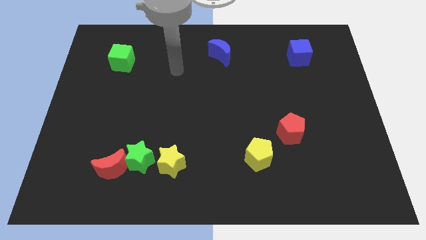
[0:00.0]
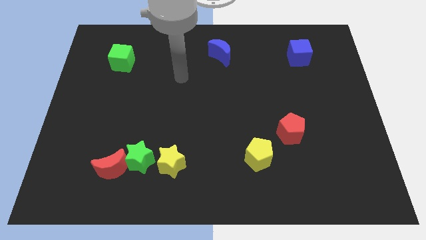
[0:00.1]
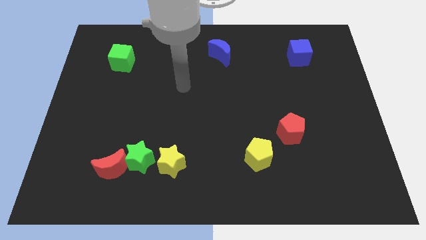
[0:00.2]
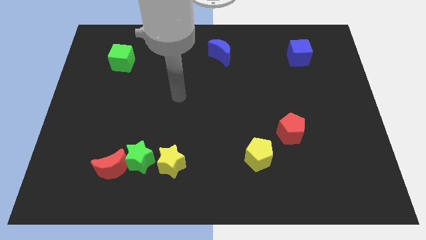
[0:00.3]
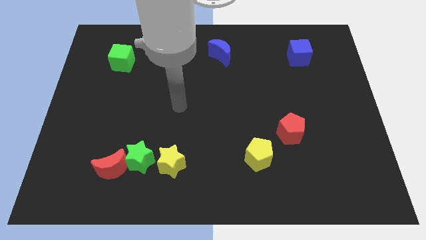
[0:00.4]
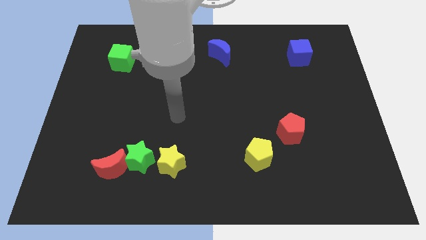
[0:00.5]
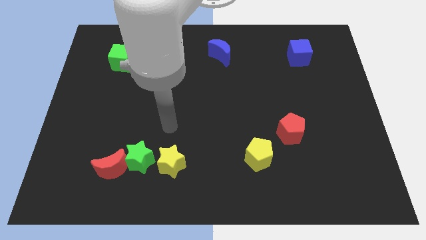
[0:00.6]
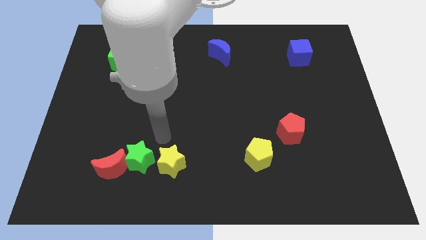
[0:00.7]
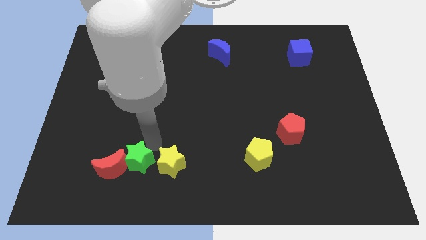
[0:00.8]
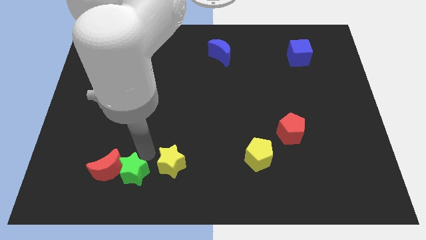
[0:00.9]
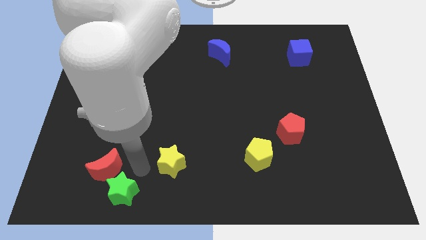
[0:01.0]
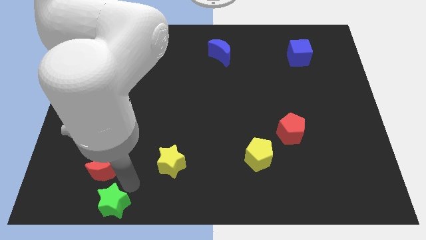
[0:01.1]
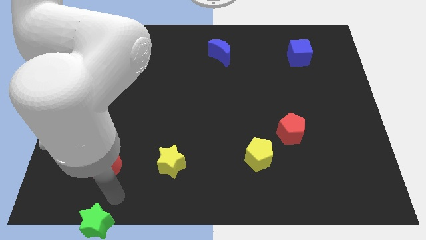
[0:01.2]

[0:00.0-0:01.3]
pull the red moon apart from the green star

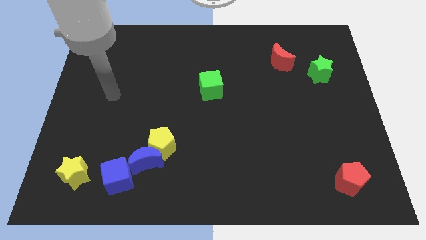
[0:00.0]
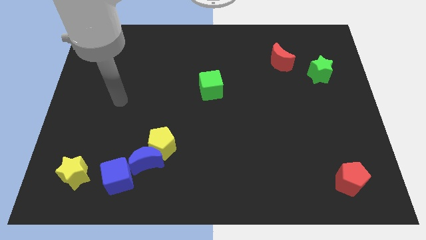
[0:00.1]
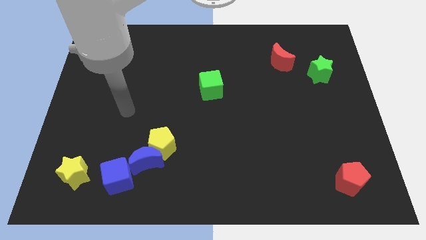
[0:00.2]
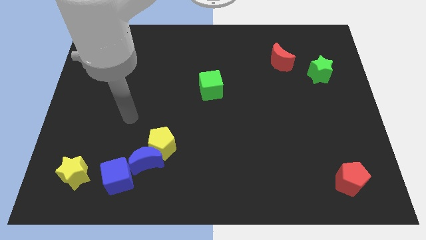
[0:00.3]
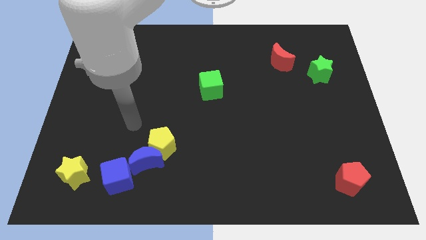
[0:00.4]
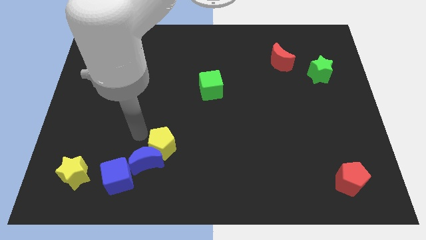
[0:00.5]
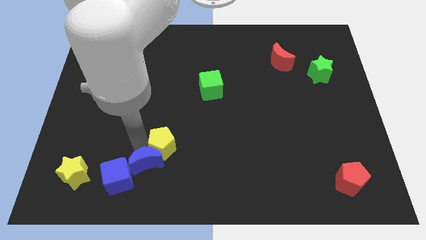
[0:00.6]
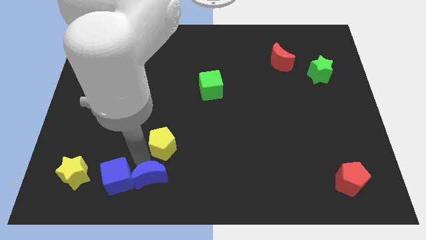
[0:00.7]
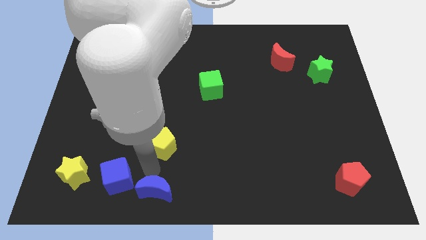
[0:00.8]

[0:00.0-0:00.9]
move the yellow pentagon away from the blue moon

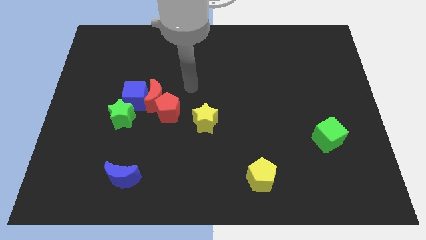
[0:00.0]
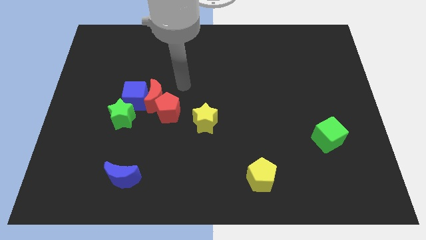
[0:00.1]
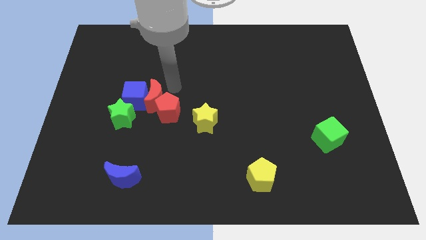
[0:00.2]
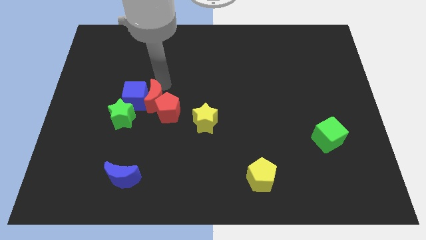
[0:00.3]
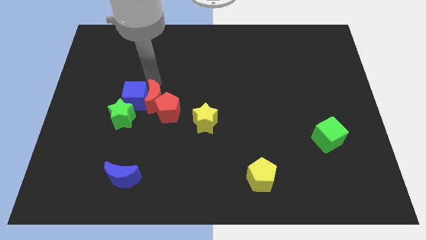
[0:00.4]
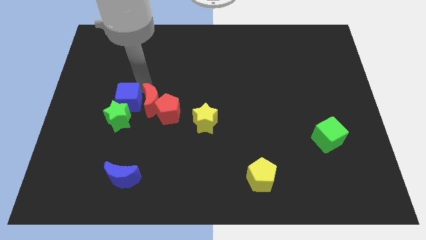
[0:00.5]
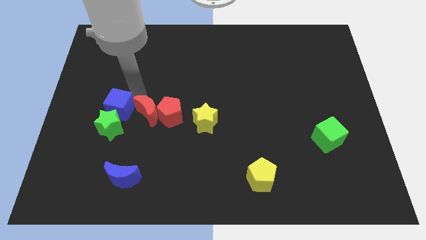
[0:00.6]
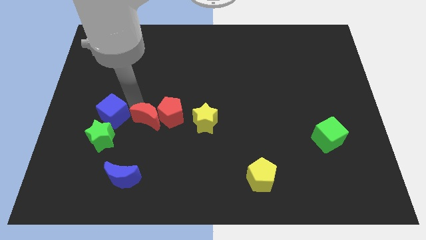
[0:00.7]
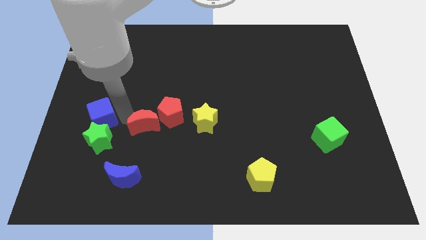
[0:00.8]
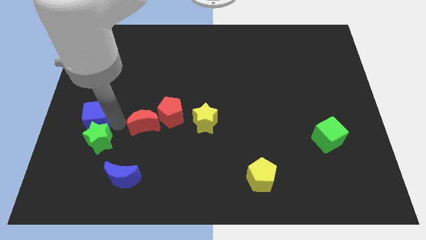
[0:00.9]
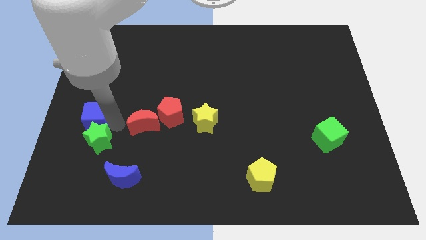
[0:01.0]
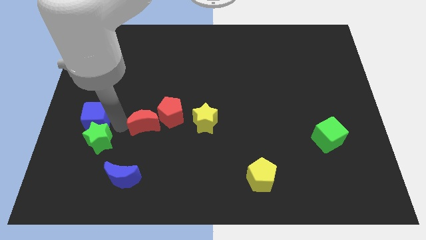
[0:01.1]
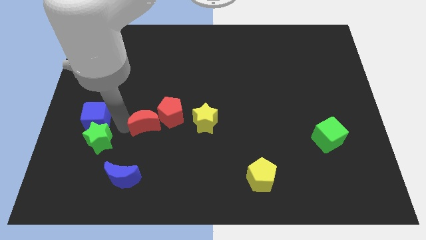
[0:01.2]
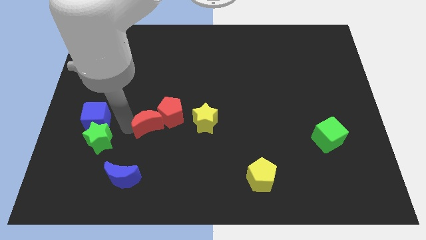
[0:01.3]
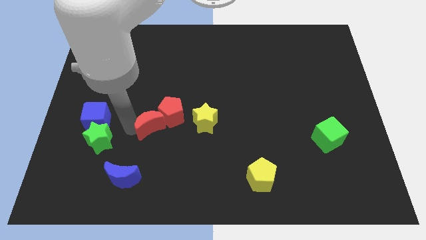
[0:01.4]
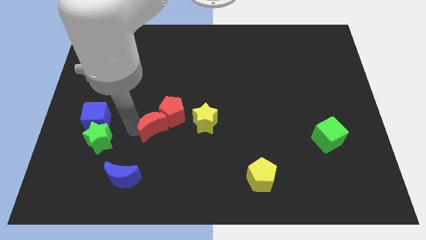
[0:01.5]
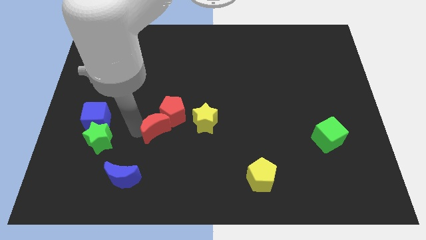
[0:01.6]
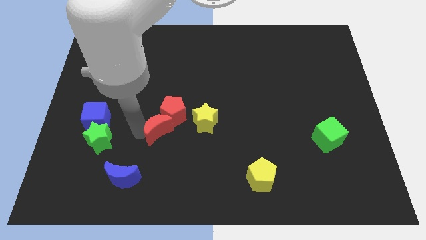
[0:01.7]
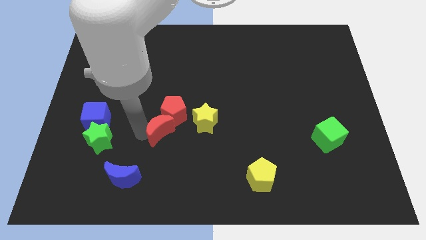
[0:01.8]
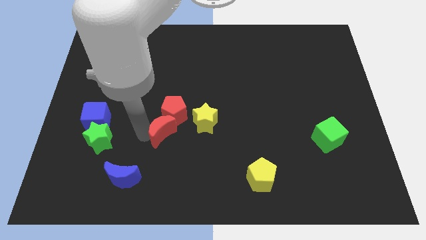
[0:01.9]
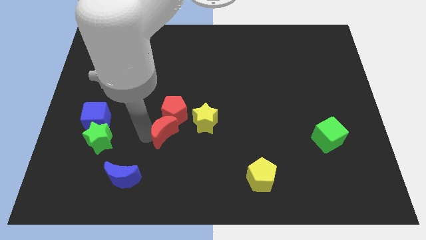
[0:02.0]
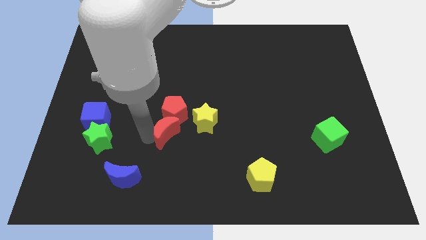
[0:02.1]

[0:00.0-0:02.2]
move the red moon away from the blue cube, red pentagon, and green star

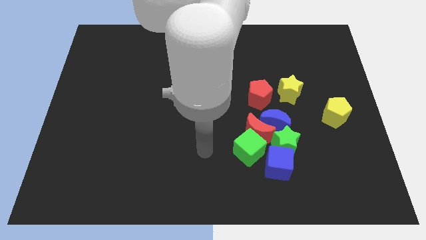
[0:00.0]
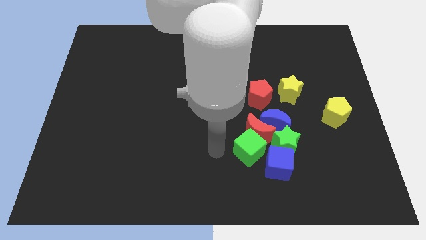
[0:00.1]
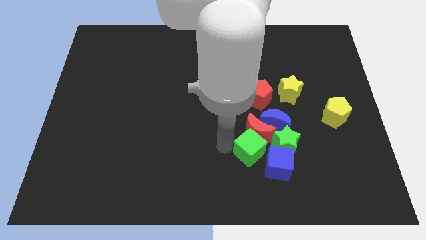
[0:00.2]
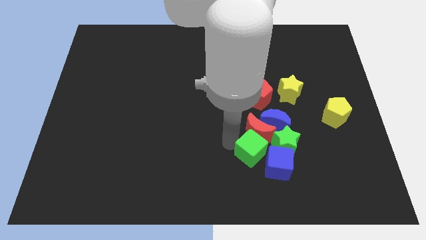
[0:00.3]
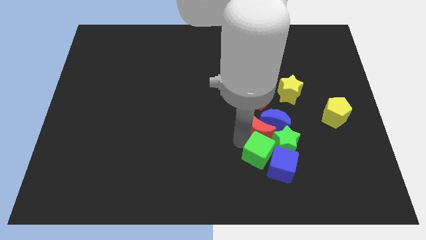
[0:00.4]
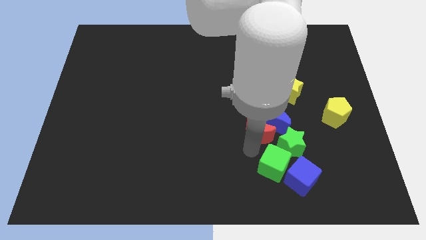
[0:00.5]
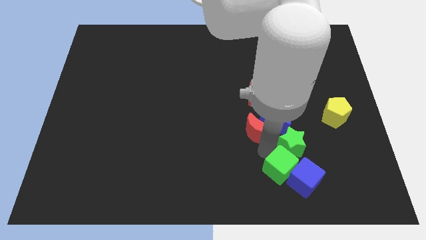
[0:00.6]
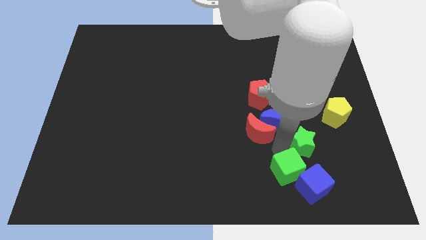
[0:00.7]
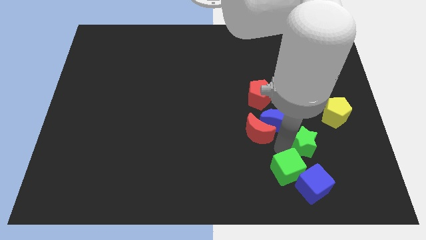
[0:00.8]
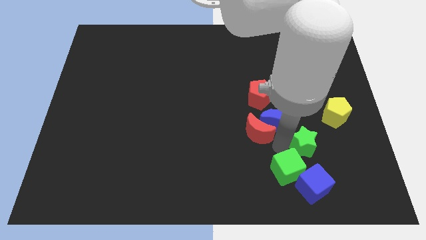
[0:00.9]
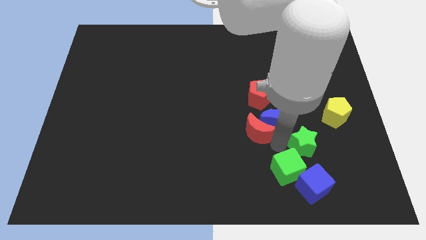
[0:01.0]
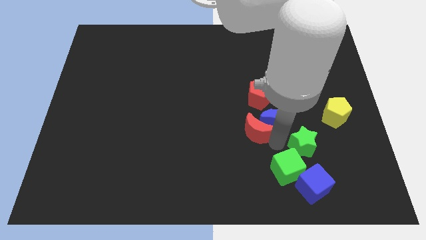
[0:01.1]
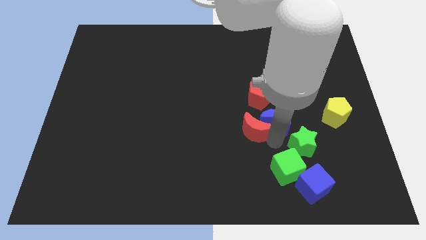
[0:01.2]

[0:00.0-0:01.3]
pull the red moon apart from the clump

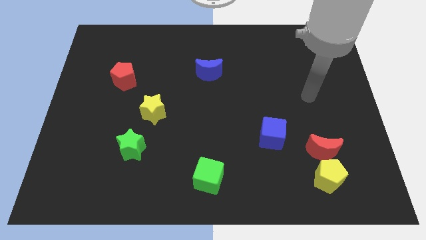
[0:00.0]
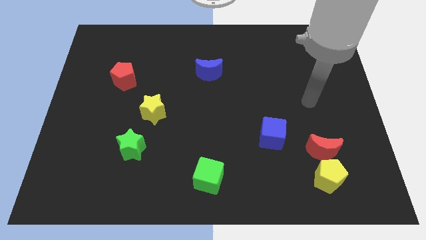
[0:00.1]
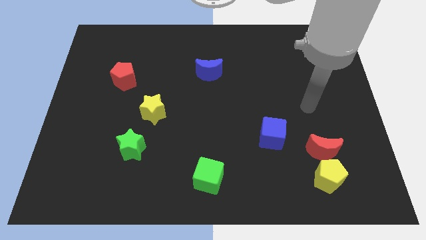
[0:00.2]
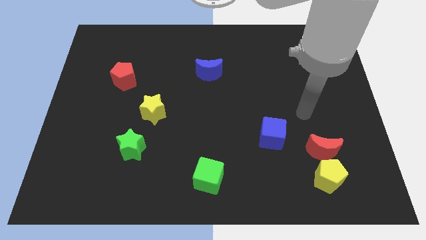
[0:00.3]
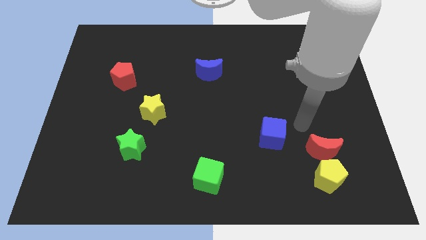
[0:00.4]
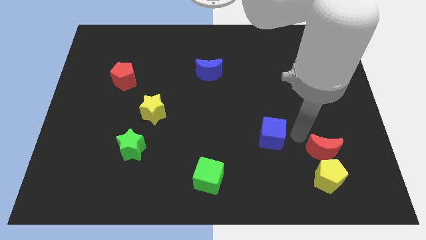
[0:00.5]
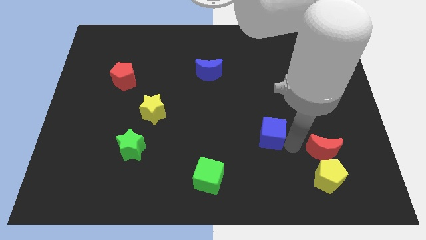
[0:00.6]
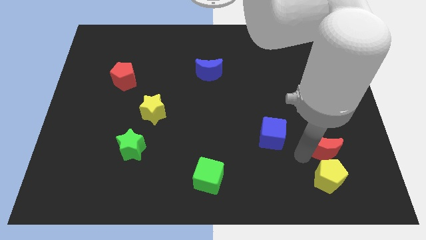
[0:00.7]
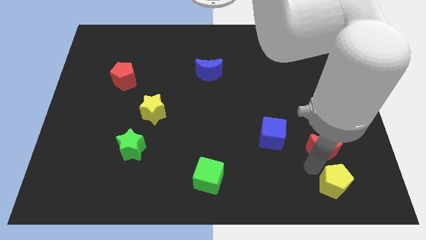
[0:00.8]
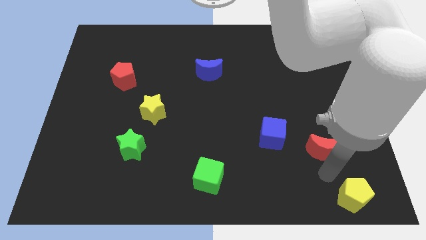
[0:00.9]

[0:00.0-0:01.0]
move the red moon away from the yellow pentagon

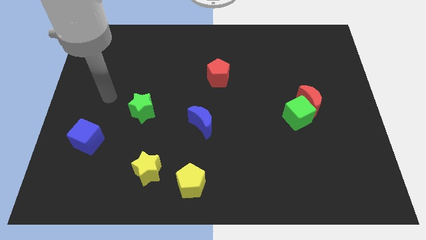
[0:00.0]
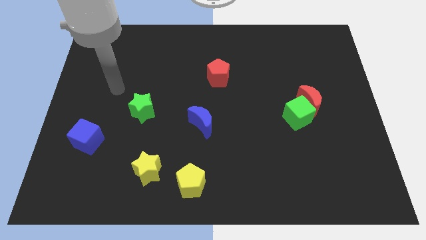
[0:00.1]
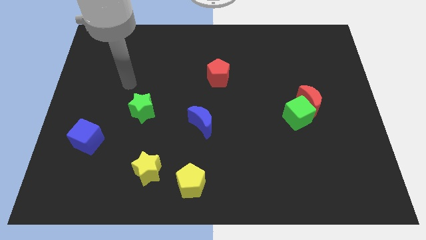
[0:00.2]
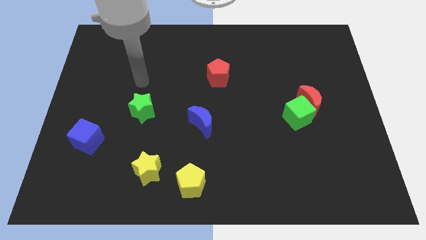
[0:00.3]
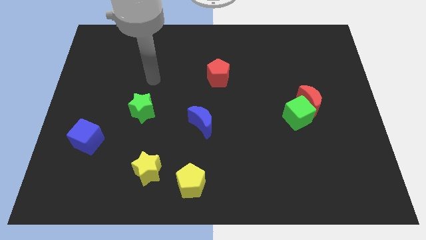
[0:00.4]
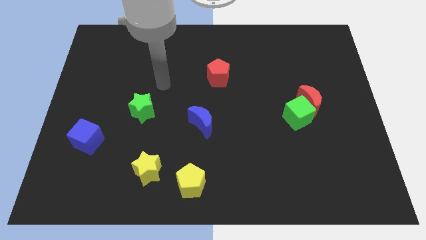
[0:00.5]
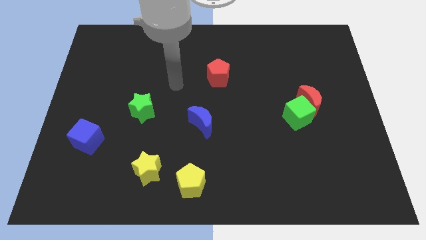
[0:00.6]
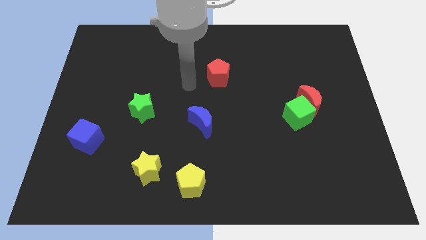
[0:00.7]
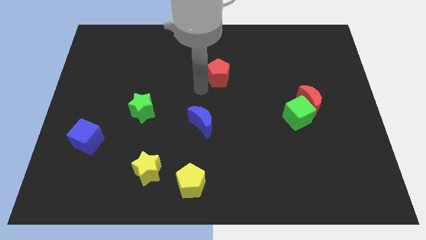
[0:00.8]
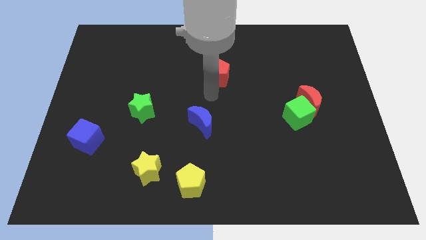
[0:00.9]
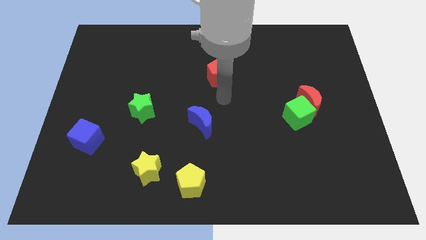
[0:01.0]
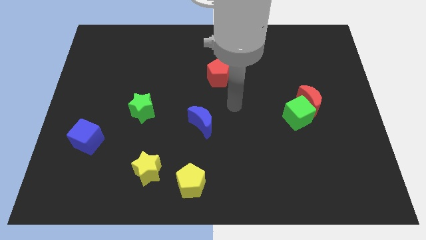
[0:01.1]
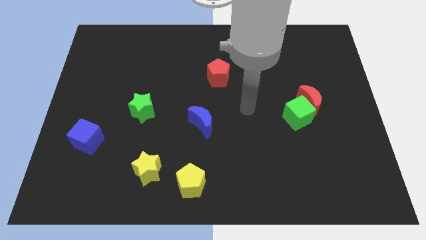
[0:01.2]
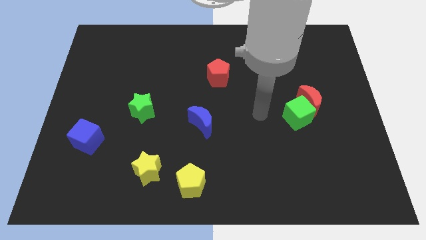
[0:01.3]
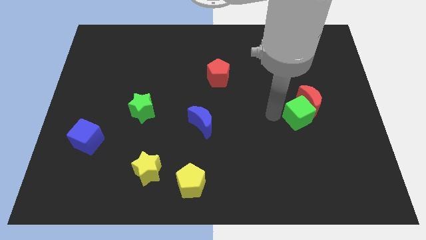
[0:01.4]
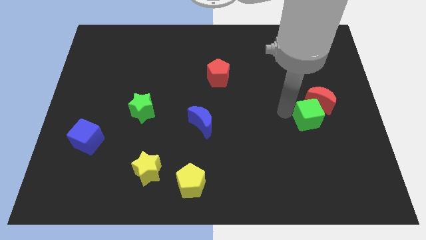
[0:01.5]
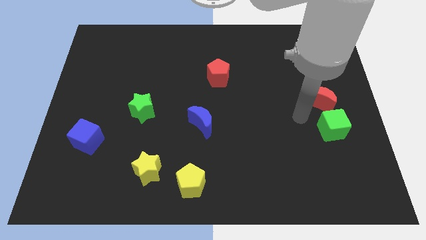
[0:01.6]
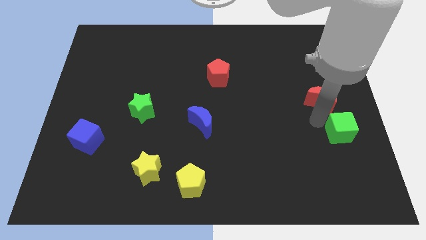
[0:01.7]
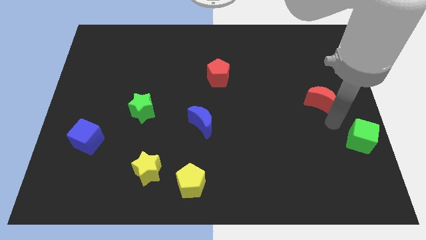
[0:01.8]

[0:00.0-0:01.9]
pull the red moon apart from the green cube

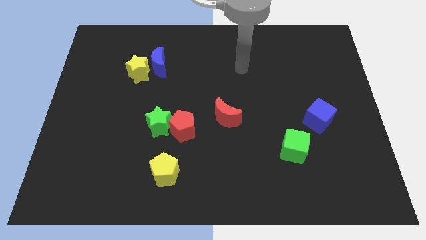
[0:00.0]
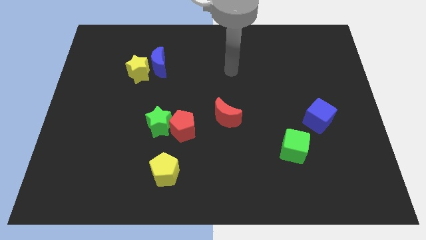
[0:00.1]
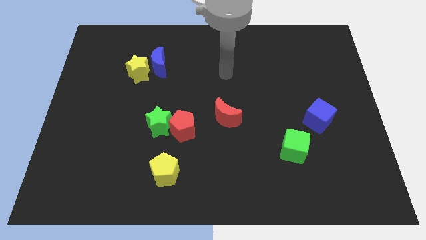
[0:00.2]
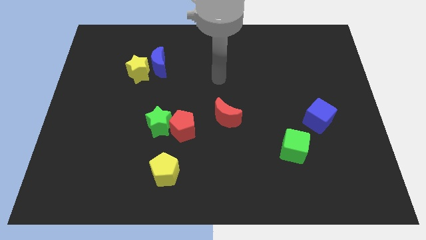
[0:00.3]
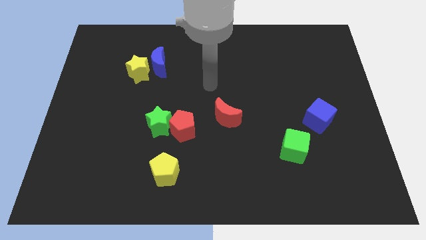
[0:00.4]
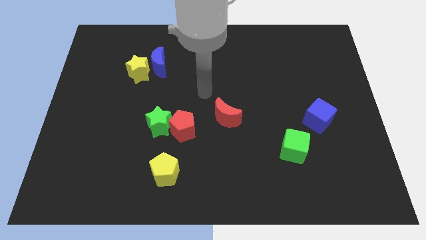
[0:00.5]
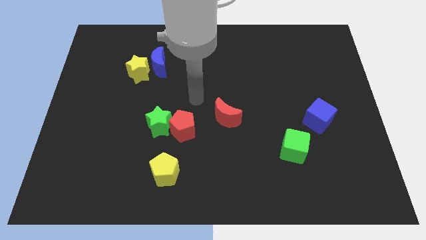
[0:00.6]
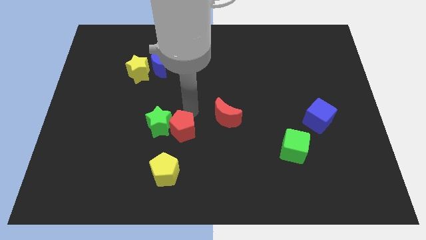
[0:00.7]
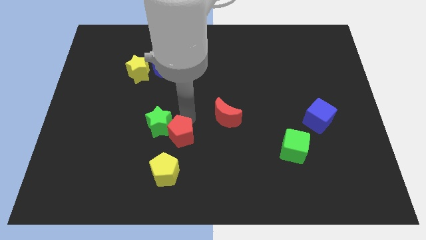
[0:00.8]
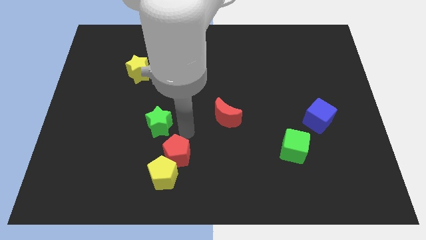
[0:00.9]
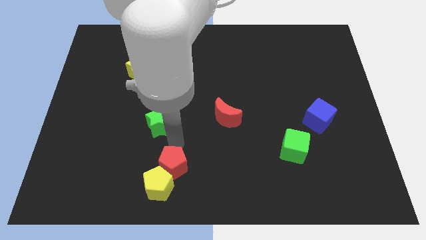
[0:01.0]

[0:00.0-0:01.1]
pull the green star apart from the red pentagon
